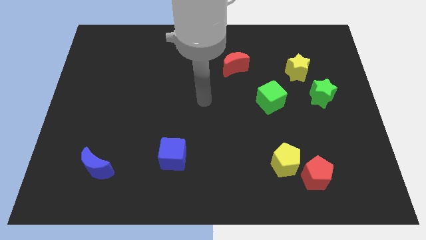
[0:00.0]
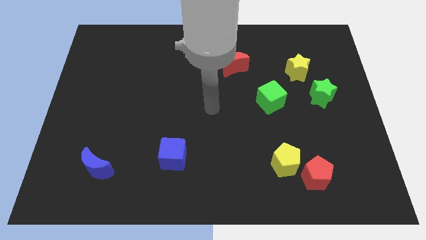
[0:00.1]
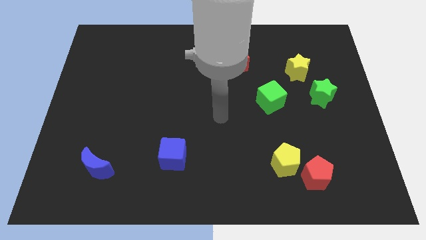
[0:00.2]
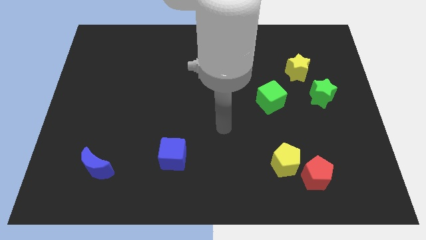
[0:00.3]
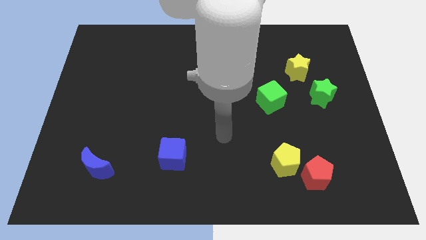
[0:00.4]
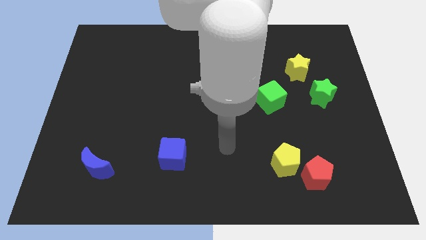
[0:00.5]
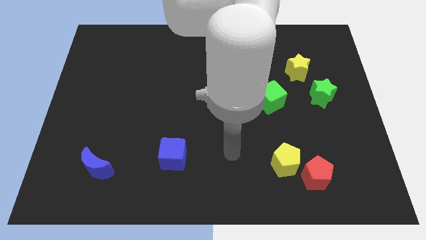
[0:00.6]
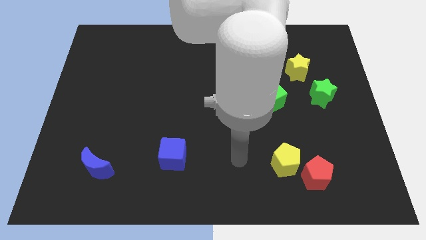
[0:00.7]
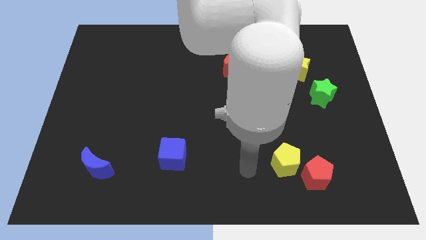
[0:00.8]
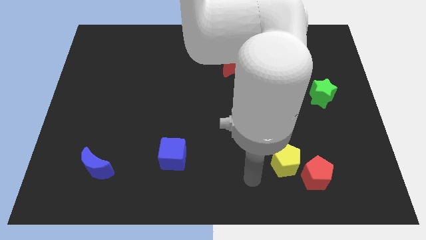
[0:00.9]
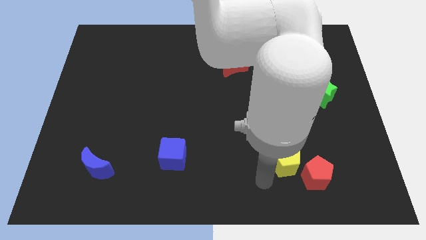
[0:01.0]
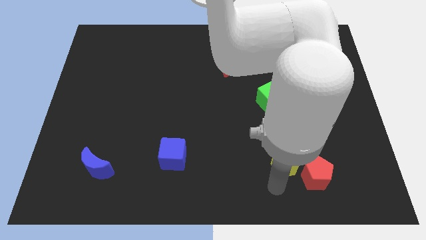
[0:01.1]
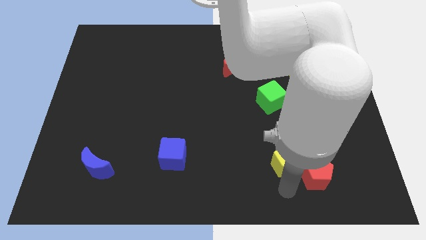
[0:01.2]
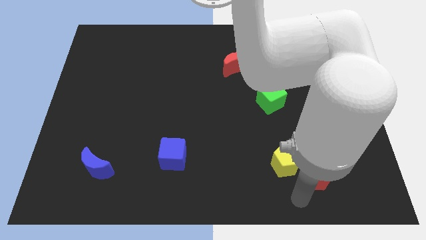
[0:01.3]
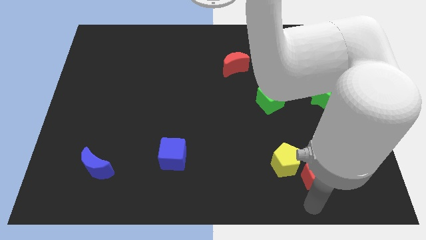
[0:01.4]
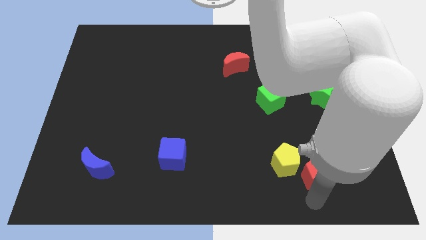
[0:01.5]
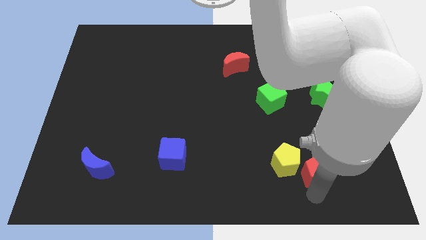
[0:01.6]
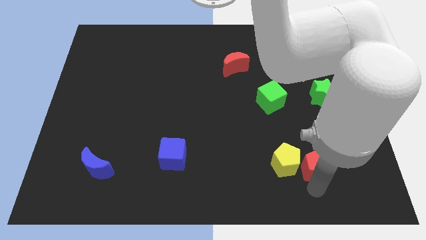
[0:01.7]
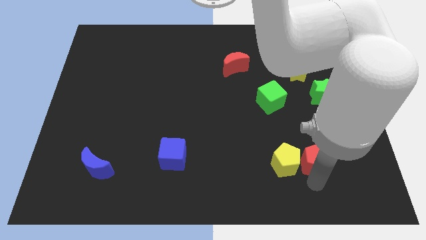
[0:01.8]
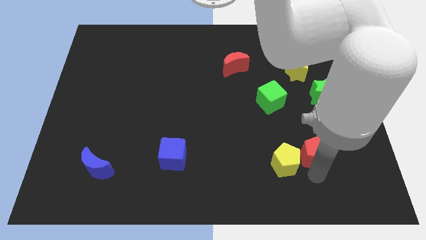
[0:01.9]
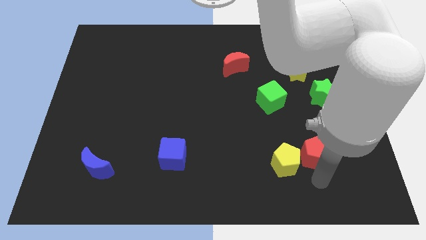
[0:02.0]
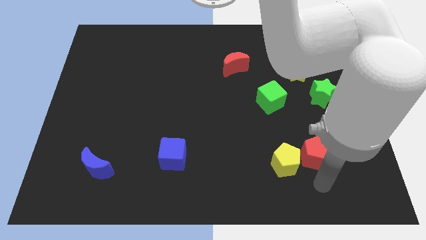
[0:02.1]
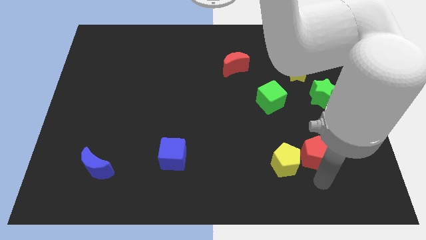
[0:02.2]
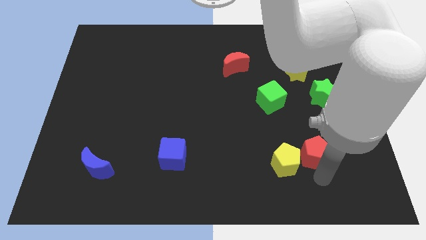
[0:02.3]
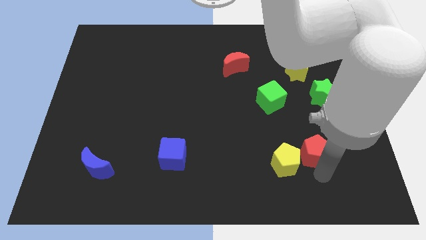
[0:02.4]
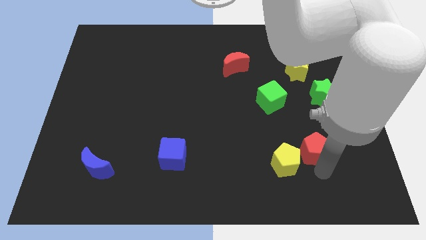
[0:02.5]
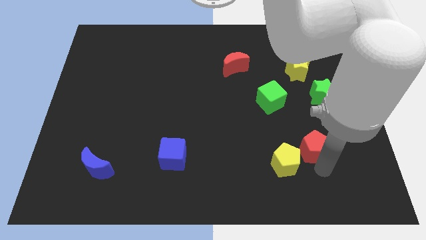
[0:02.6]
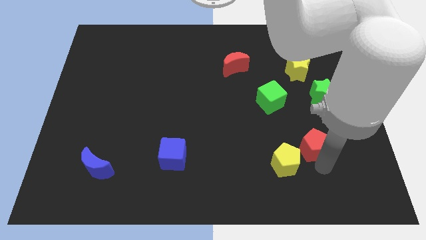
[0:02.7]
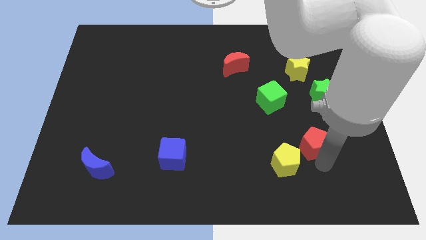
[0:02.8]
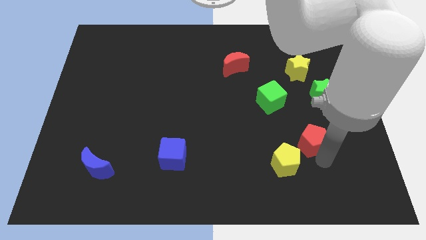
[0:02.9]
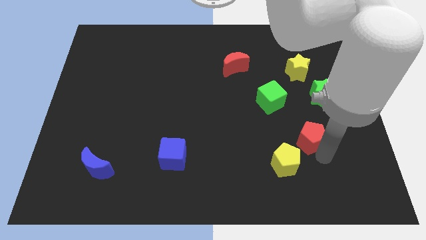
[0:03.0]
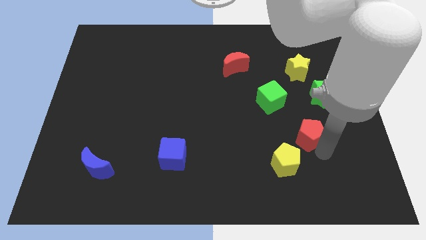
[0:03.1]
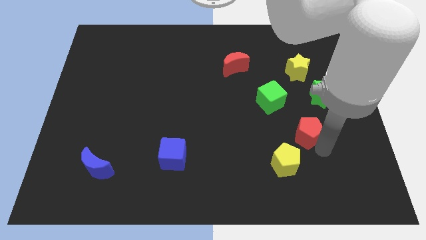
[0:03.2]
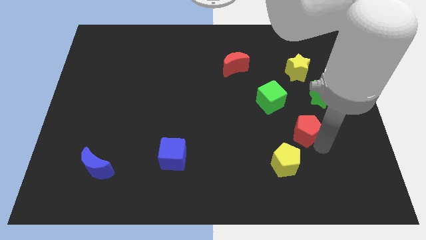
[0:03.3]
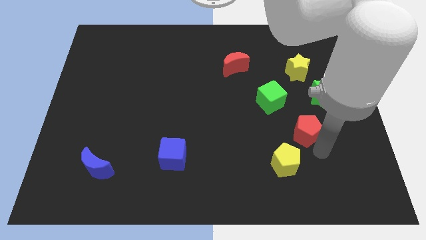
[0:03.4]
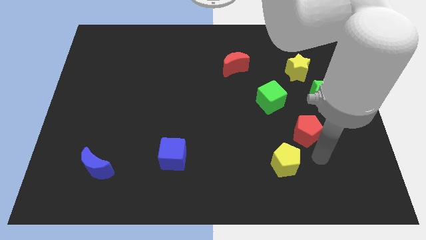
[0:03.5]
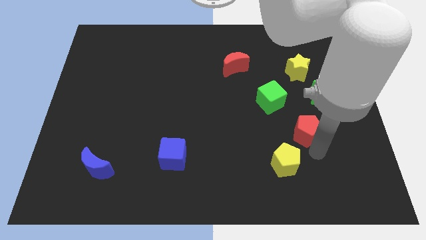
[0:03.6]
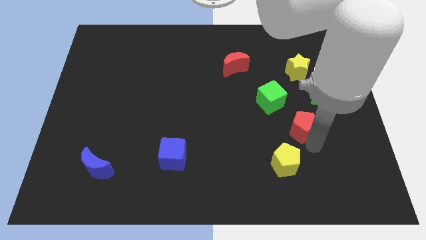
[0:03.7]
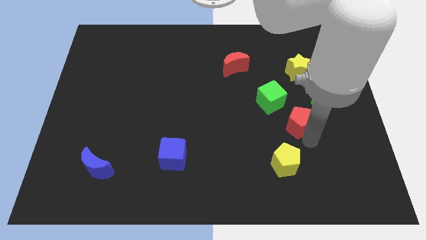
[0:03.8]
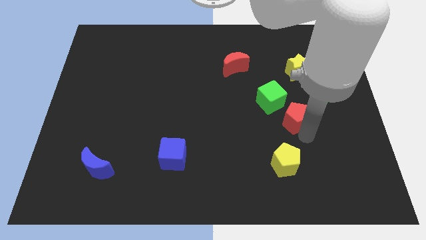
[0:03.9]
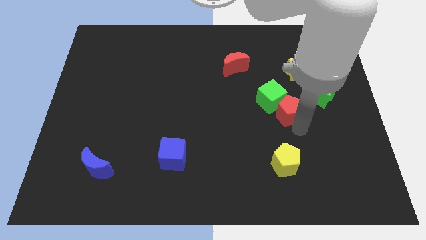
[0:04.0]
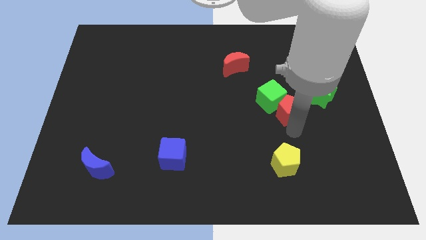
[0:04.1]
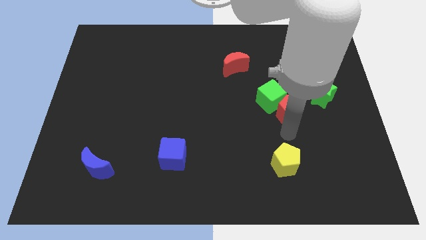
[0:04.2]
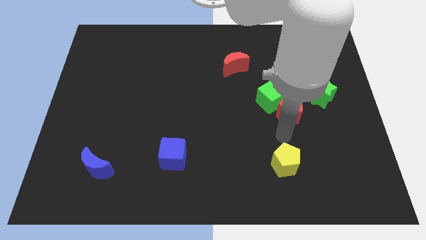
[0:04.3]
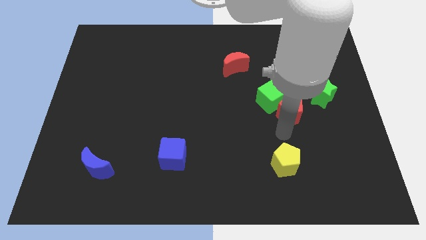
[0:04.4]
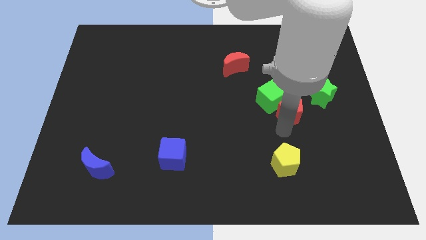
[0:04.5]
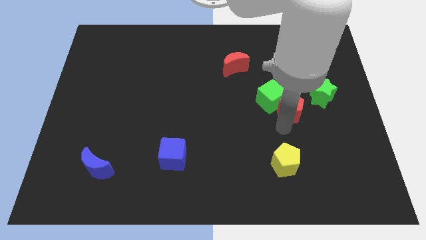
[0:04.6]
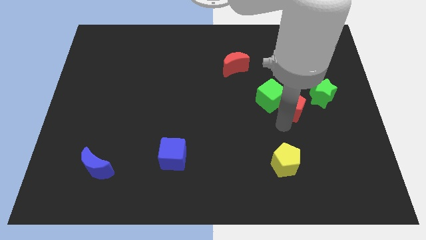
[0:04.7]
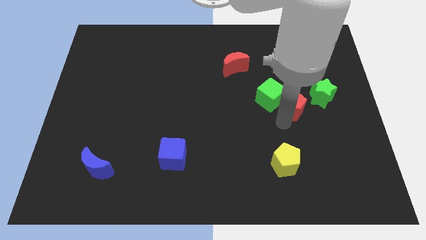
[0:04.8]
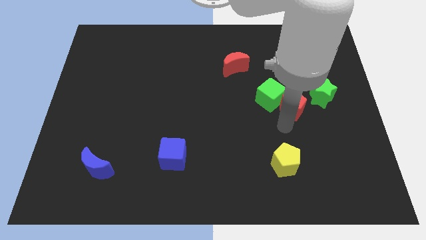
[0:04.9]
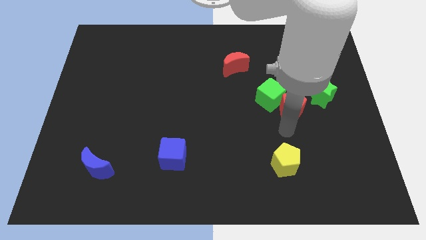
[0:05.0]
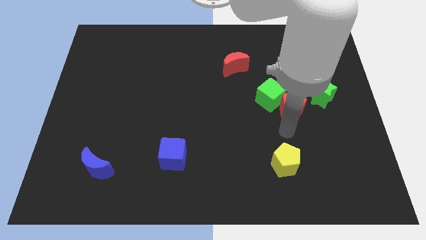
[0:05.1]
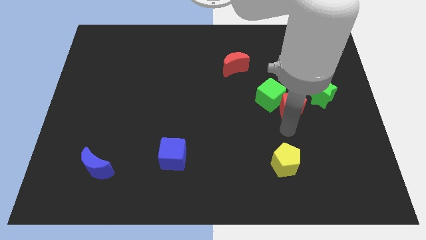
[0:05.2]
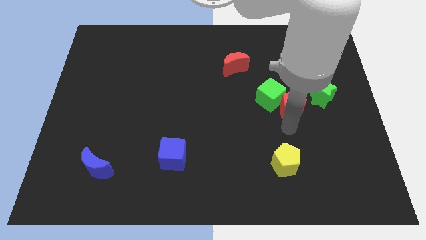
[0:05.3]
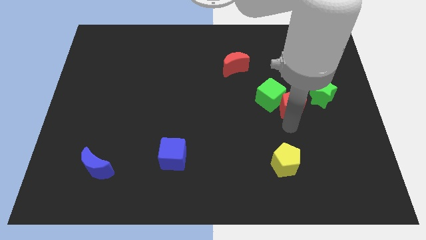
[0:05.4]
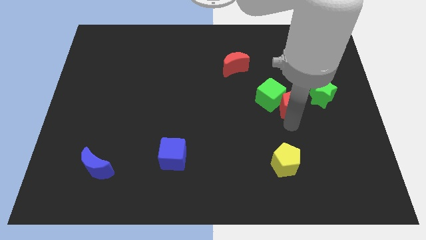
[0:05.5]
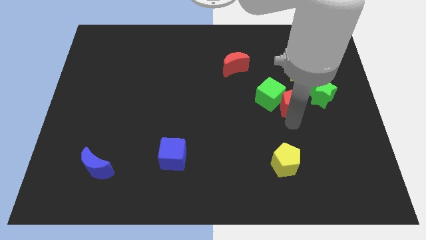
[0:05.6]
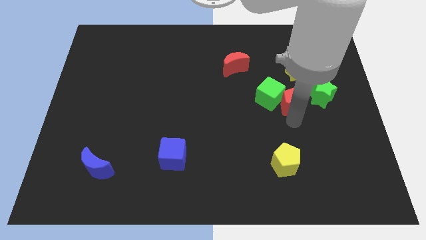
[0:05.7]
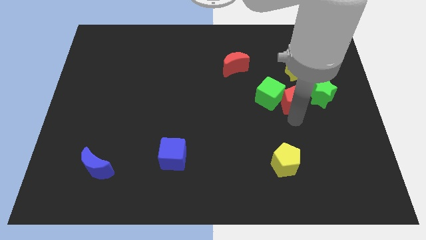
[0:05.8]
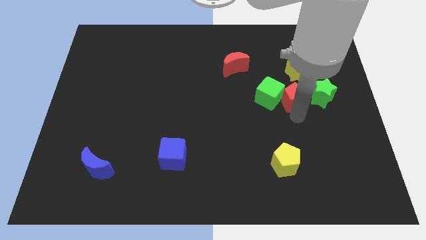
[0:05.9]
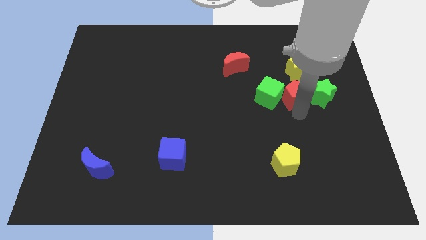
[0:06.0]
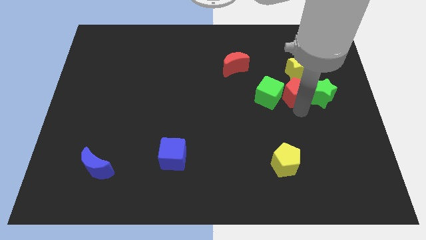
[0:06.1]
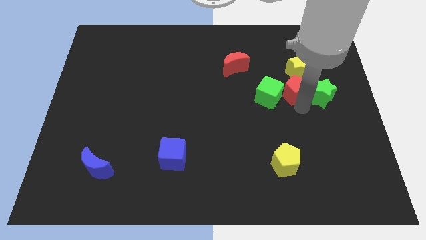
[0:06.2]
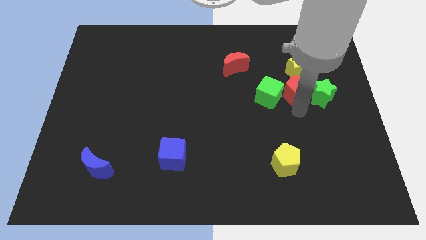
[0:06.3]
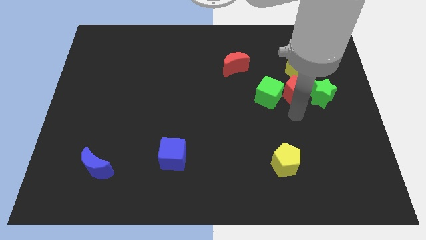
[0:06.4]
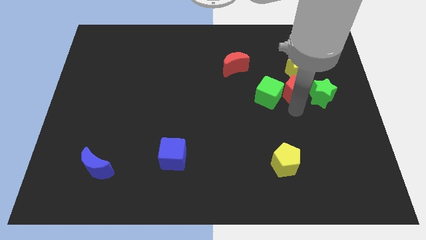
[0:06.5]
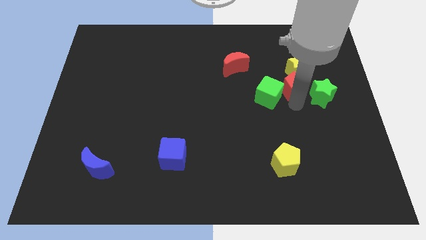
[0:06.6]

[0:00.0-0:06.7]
push the red pentagon towards the yellow star

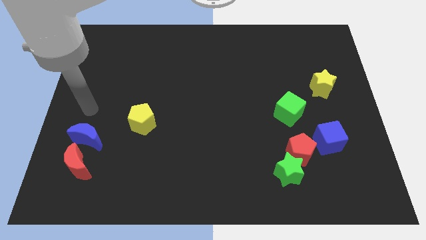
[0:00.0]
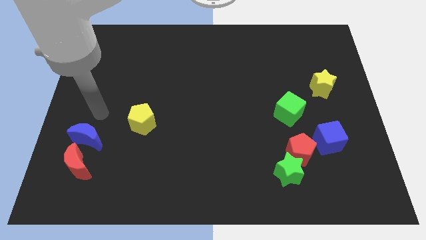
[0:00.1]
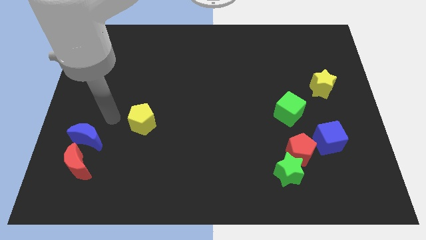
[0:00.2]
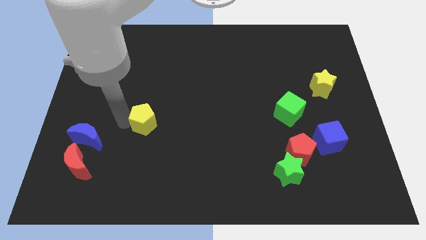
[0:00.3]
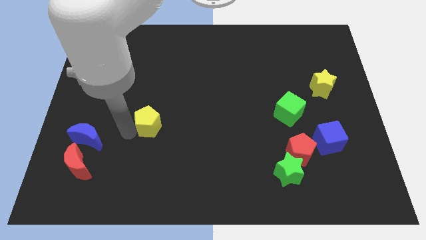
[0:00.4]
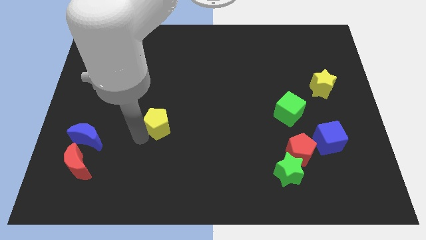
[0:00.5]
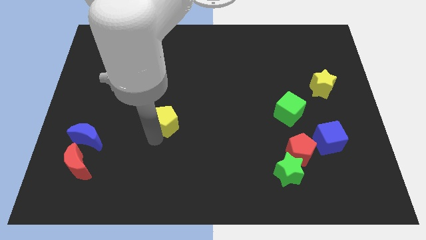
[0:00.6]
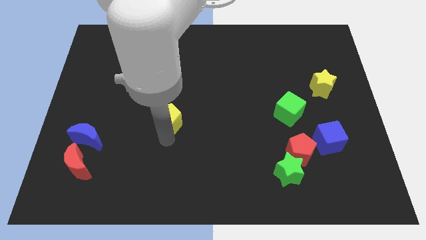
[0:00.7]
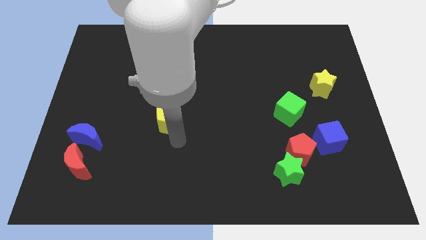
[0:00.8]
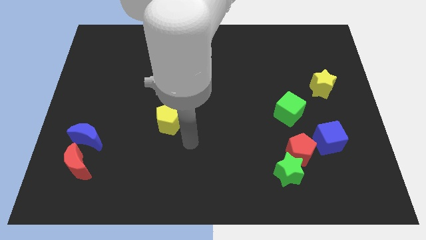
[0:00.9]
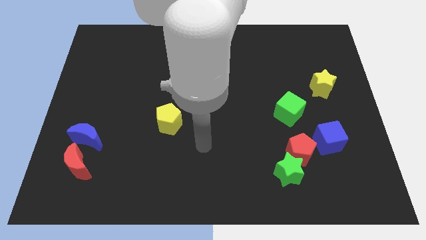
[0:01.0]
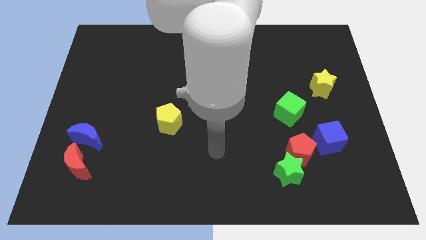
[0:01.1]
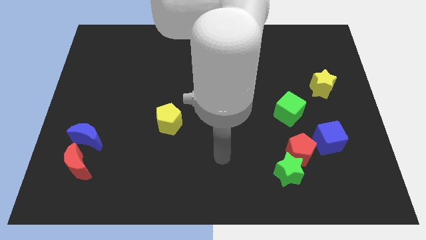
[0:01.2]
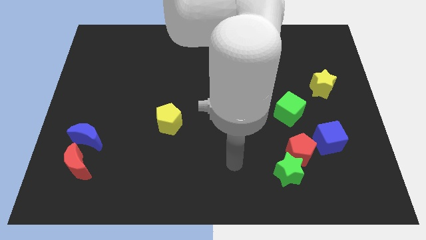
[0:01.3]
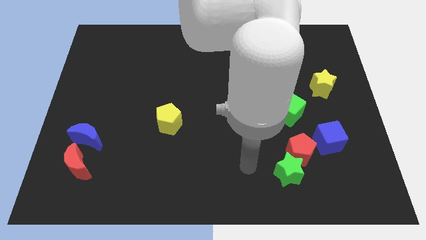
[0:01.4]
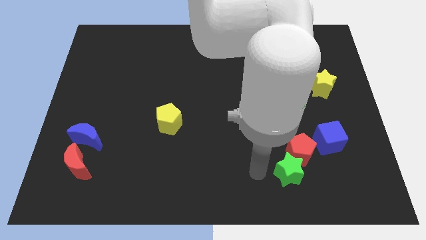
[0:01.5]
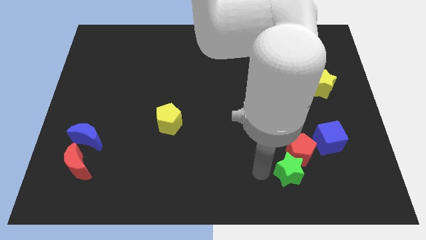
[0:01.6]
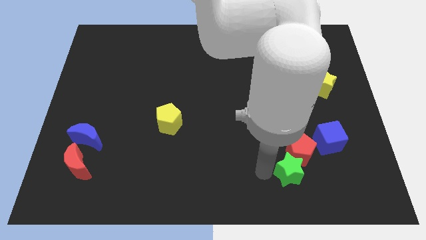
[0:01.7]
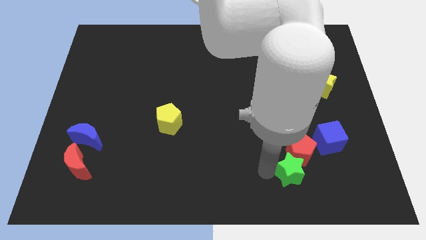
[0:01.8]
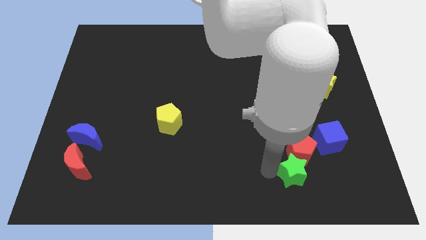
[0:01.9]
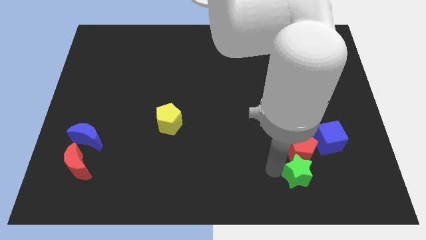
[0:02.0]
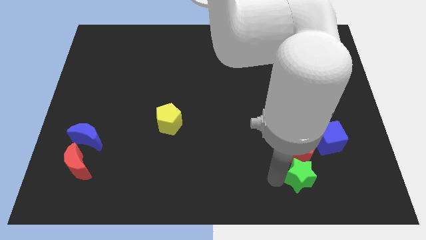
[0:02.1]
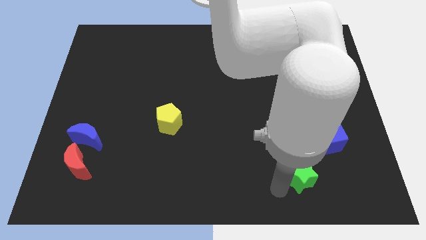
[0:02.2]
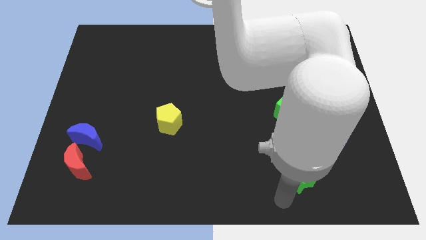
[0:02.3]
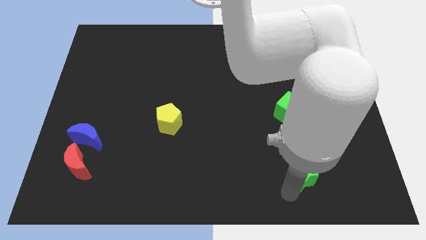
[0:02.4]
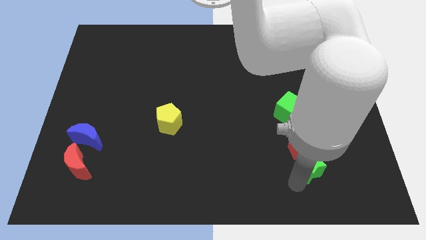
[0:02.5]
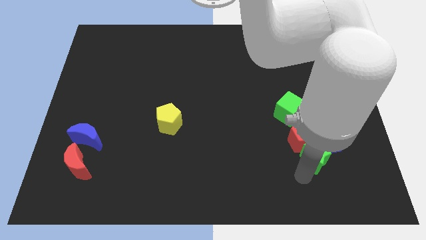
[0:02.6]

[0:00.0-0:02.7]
slide the green star close to the blue cube
